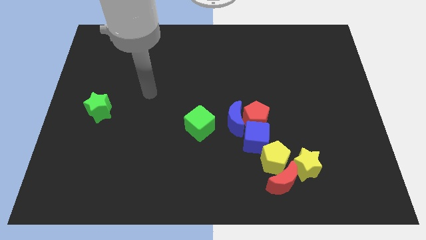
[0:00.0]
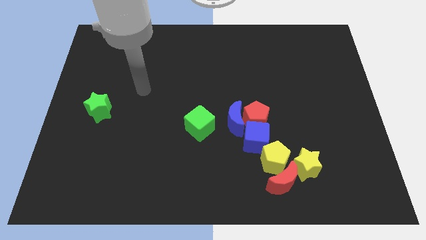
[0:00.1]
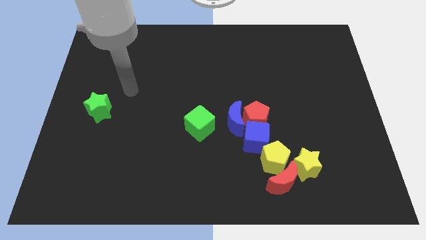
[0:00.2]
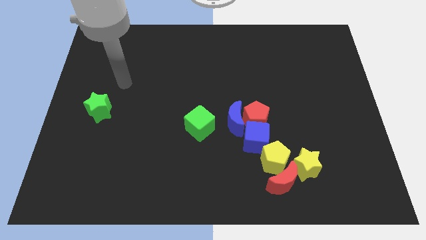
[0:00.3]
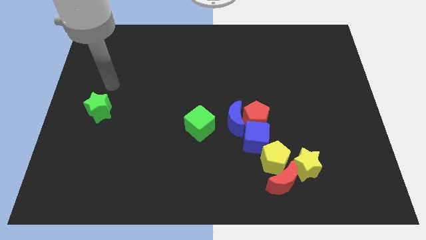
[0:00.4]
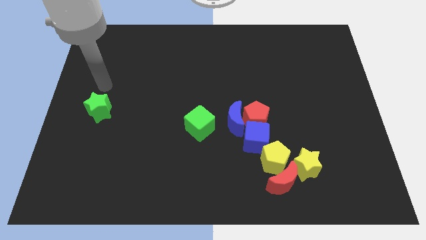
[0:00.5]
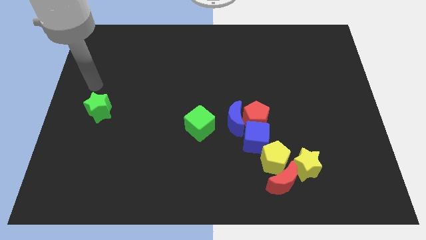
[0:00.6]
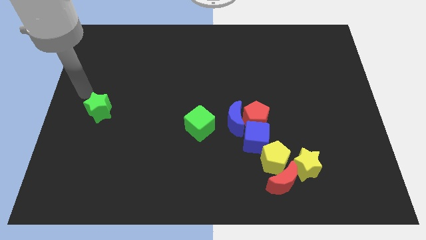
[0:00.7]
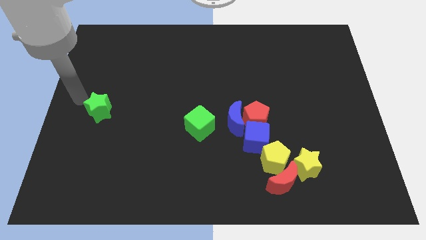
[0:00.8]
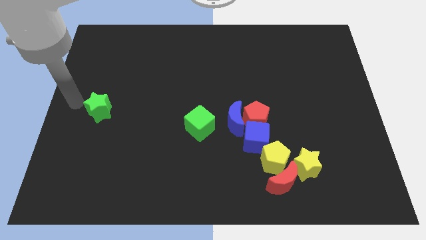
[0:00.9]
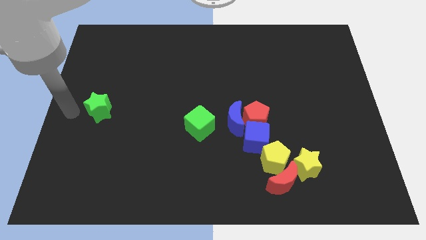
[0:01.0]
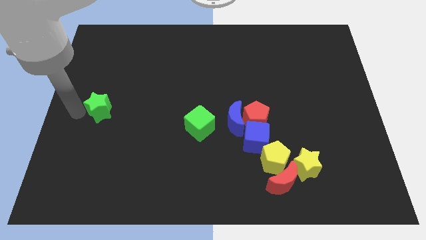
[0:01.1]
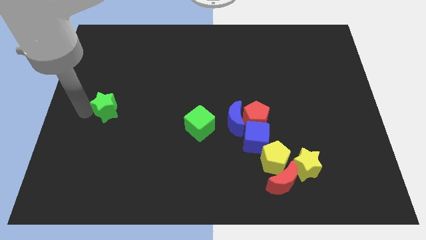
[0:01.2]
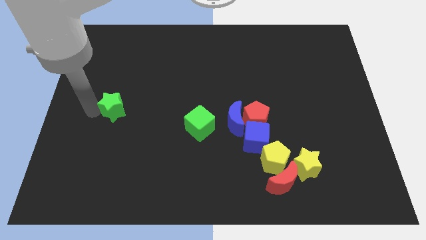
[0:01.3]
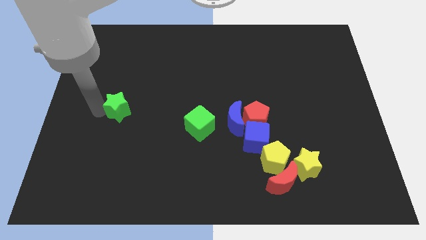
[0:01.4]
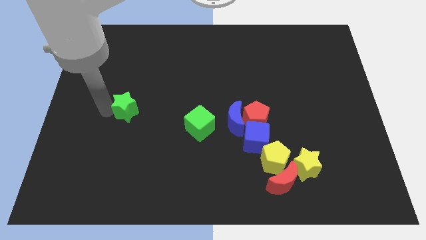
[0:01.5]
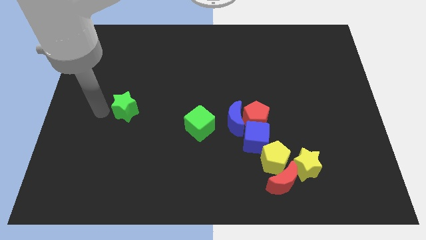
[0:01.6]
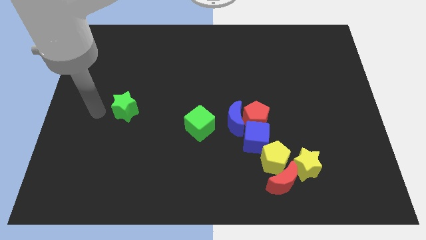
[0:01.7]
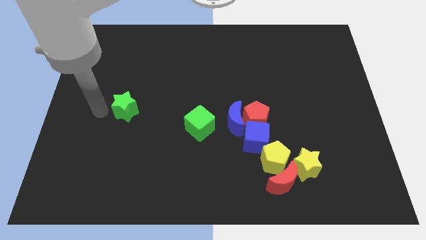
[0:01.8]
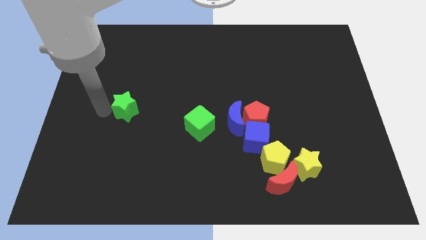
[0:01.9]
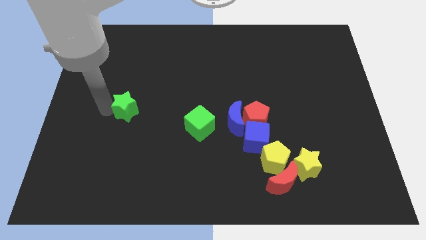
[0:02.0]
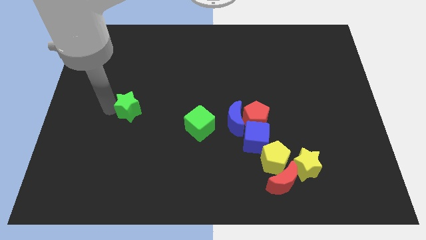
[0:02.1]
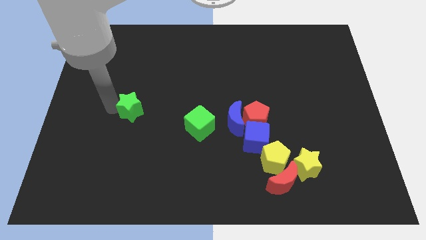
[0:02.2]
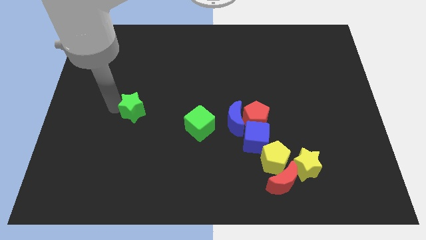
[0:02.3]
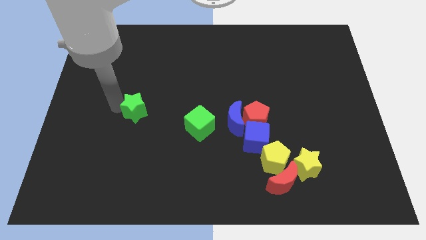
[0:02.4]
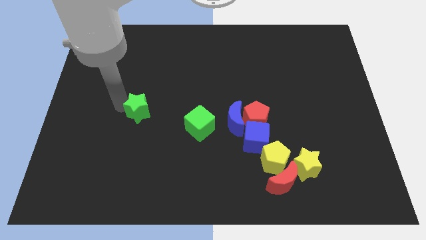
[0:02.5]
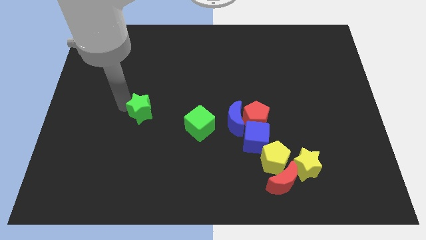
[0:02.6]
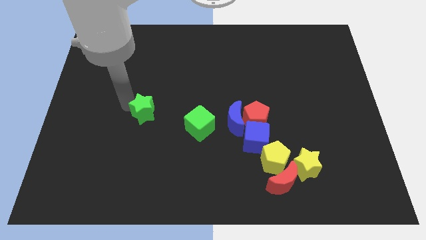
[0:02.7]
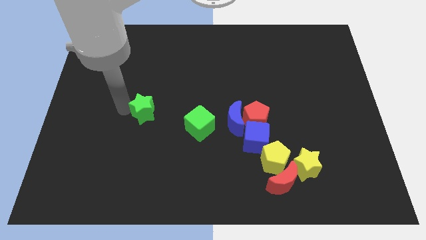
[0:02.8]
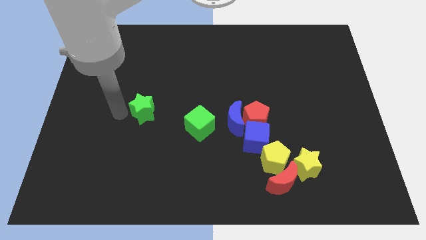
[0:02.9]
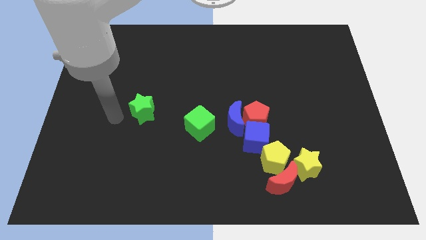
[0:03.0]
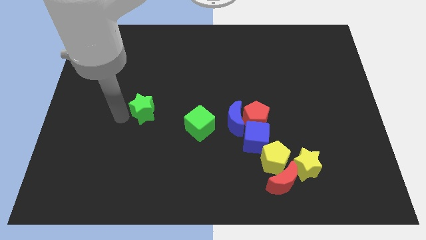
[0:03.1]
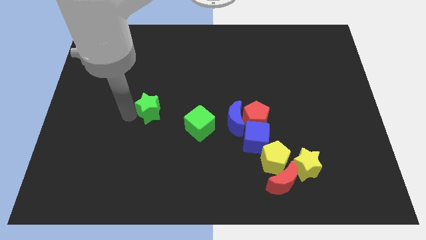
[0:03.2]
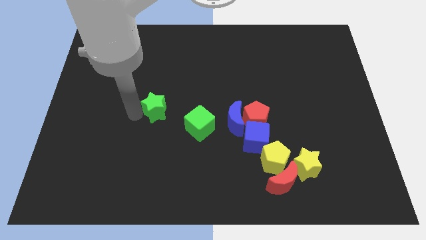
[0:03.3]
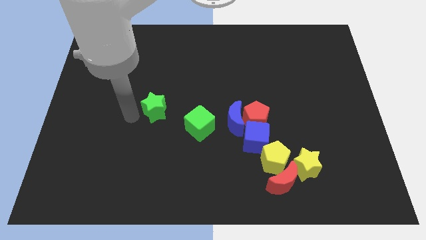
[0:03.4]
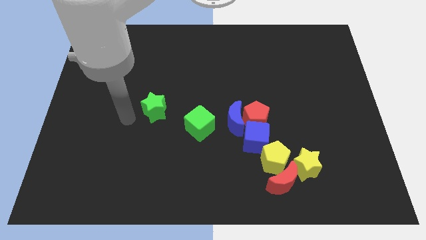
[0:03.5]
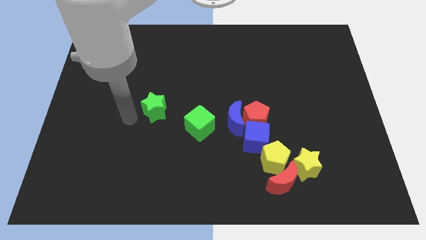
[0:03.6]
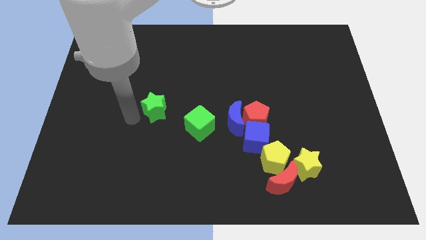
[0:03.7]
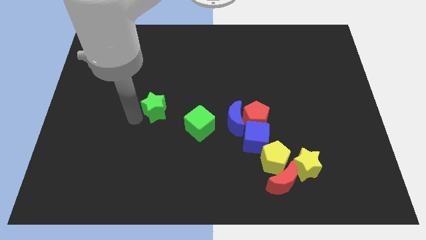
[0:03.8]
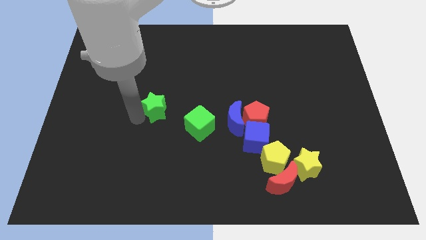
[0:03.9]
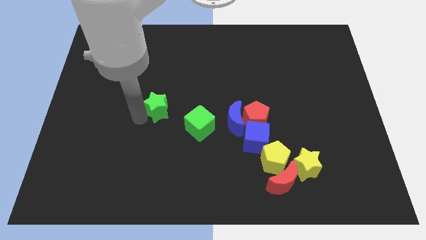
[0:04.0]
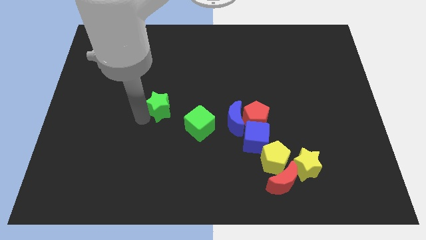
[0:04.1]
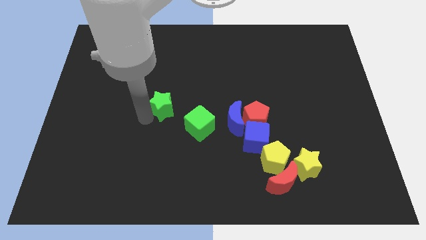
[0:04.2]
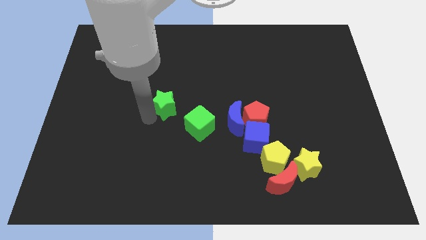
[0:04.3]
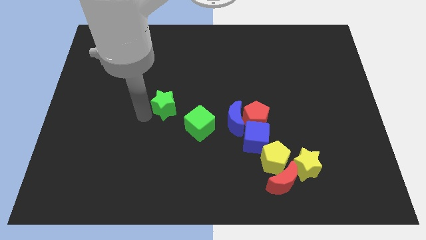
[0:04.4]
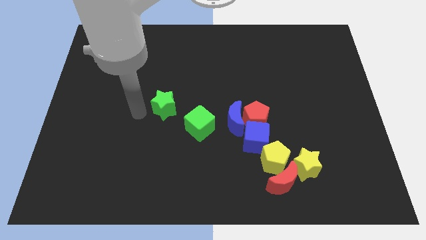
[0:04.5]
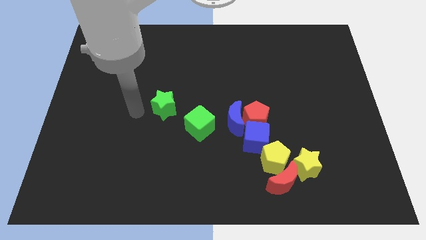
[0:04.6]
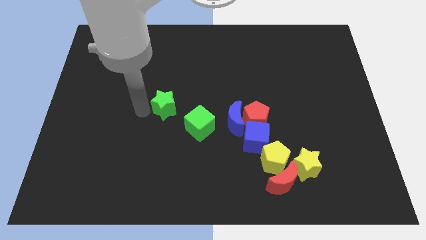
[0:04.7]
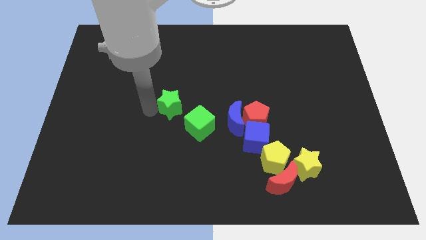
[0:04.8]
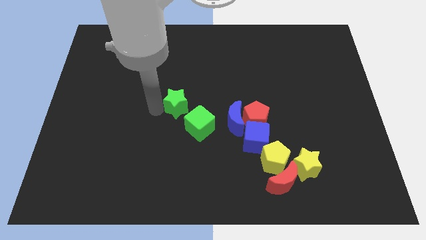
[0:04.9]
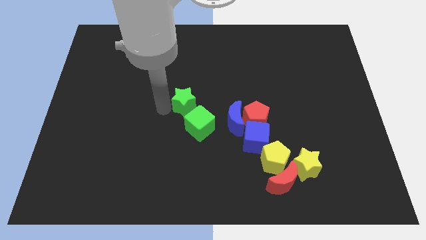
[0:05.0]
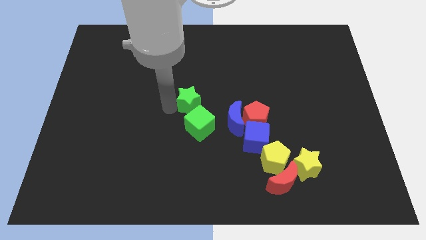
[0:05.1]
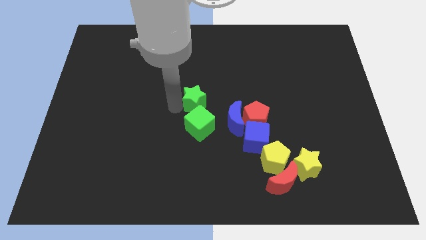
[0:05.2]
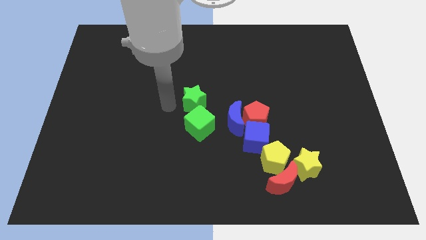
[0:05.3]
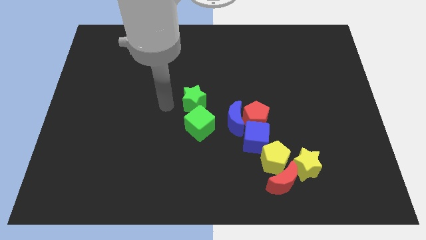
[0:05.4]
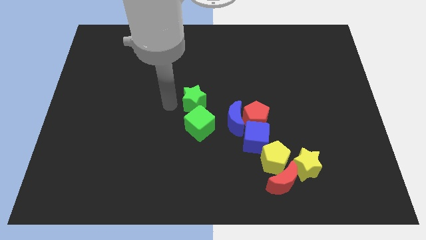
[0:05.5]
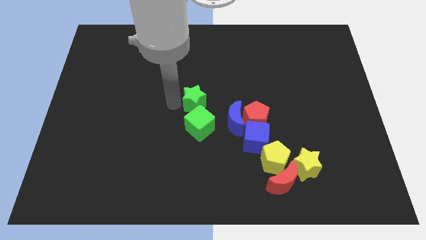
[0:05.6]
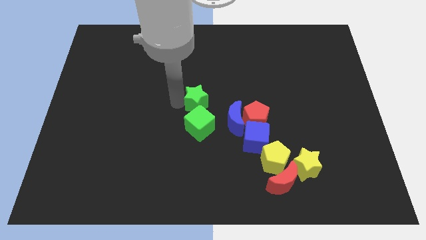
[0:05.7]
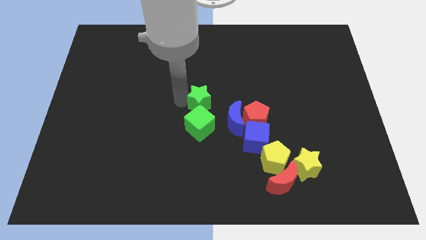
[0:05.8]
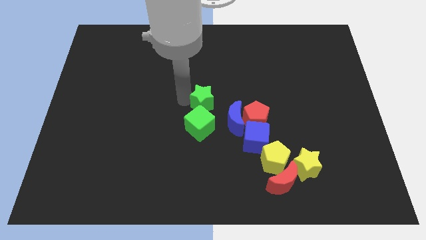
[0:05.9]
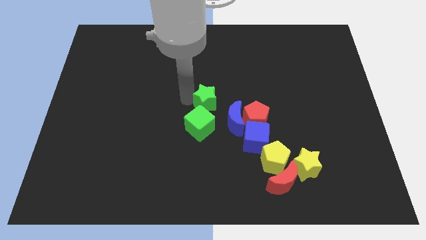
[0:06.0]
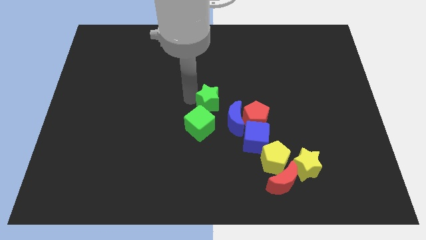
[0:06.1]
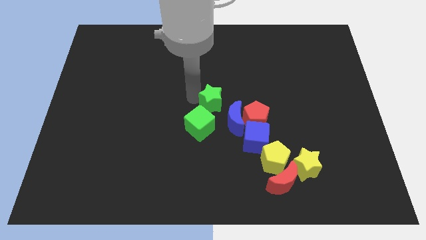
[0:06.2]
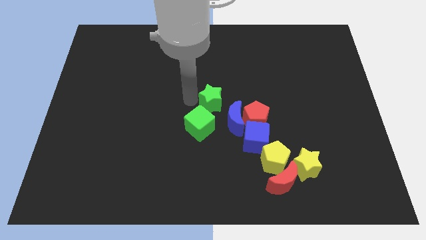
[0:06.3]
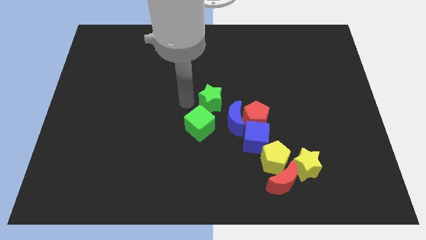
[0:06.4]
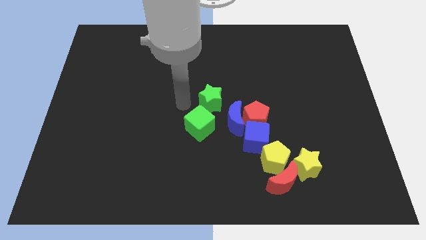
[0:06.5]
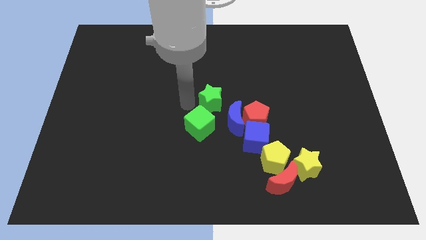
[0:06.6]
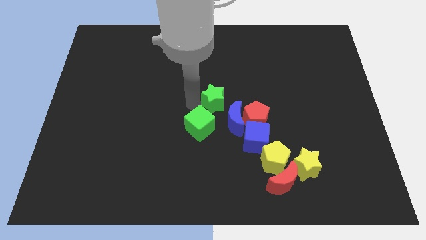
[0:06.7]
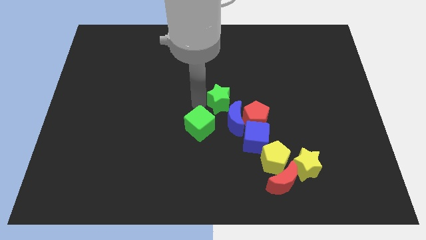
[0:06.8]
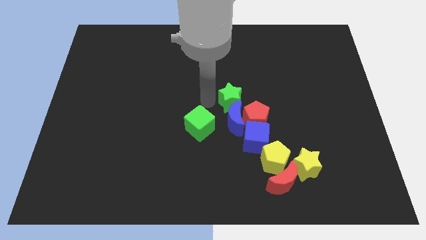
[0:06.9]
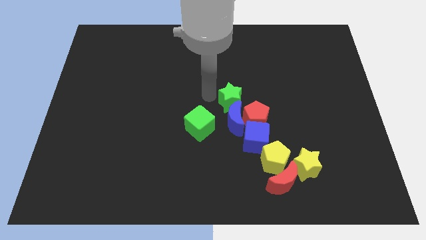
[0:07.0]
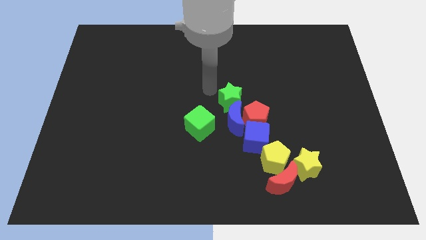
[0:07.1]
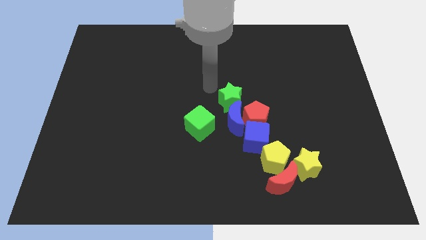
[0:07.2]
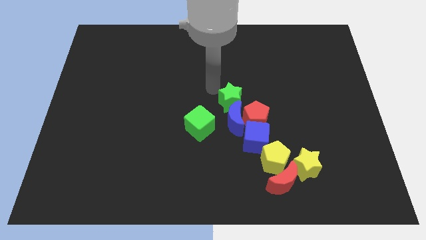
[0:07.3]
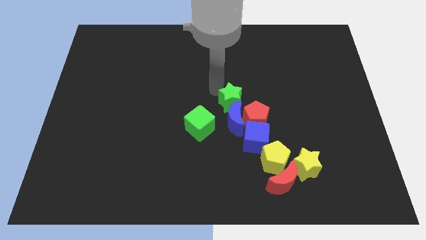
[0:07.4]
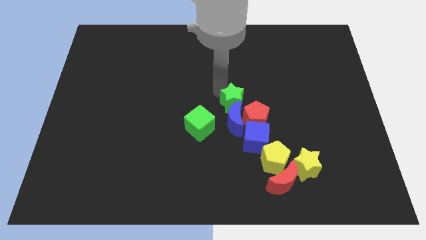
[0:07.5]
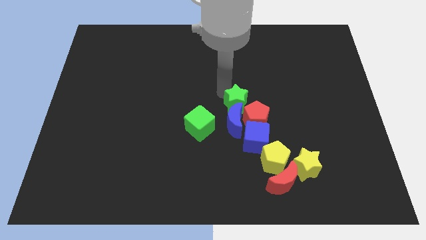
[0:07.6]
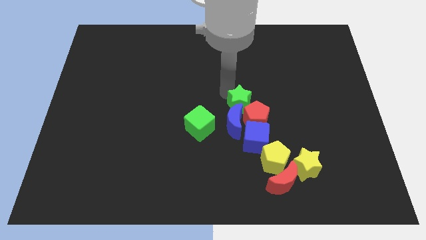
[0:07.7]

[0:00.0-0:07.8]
push the green star to the red pentagon
